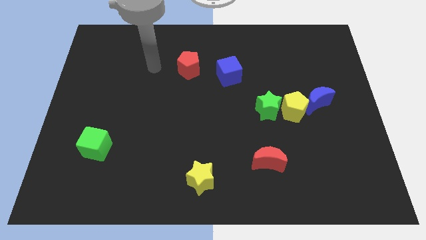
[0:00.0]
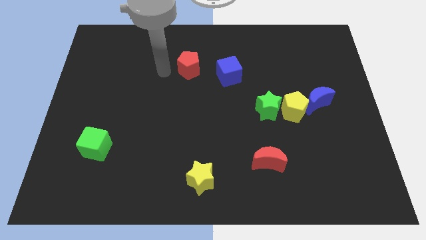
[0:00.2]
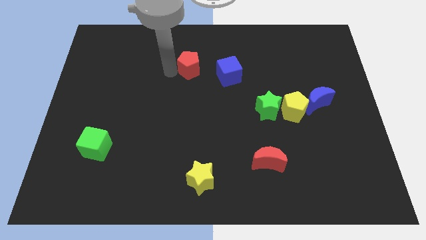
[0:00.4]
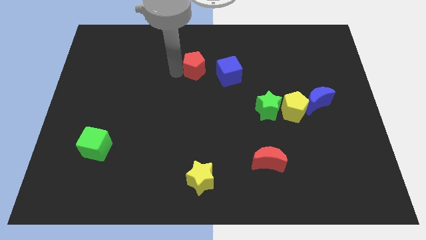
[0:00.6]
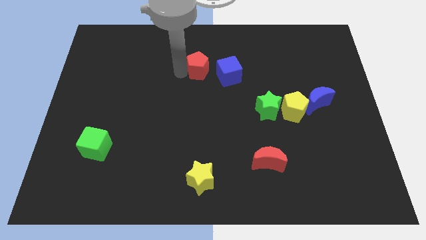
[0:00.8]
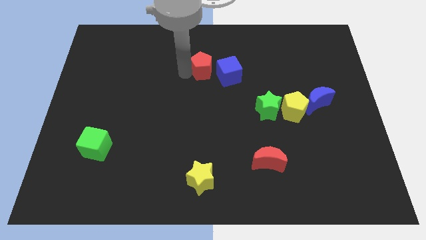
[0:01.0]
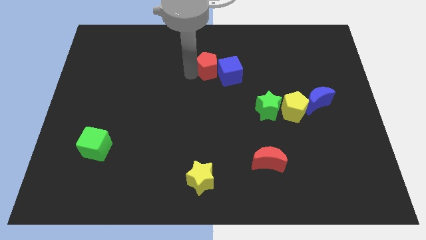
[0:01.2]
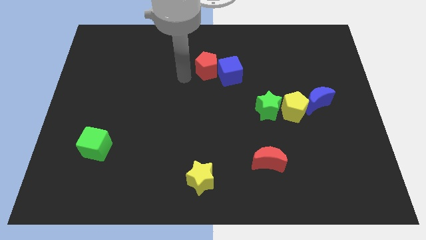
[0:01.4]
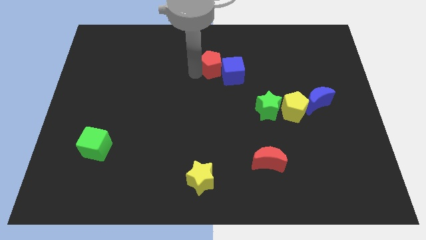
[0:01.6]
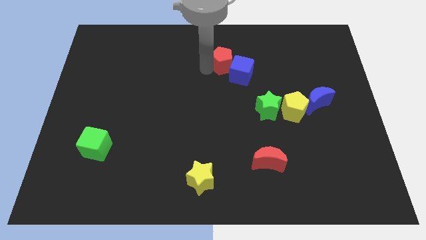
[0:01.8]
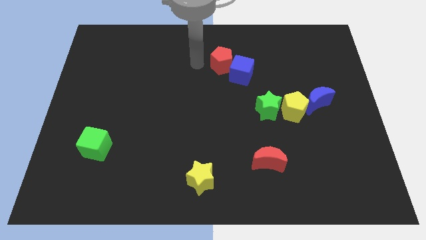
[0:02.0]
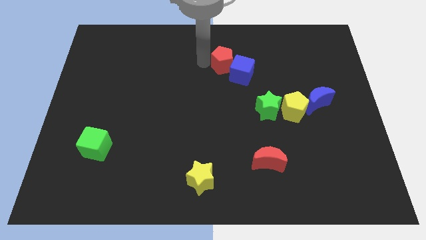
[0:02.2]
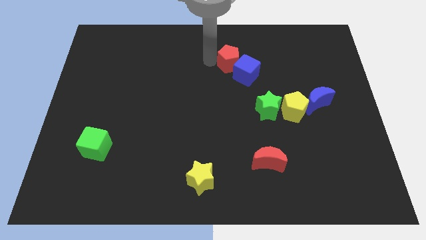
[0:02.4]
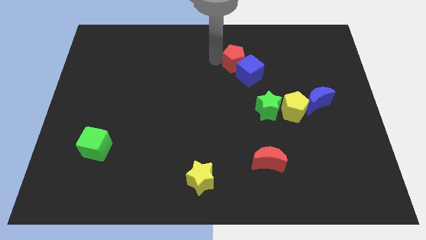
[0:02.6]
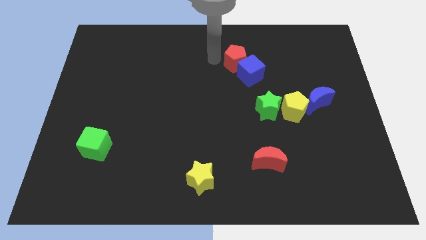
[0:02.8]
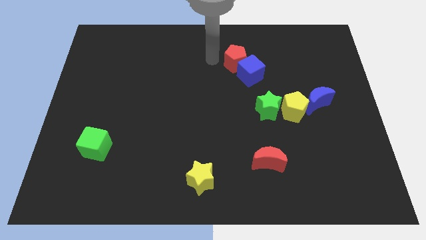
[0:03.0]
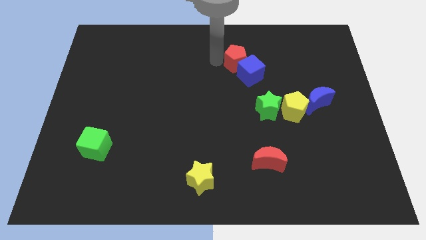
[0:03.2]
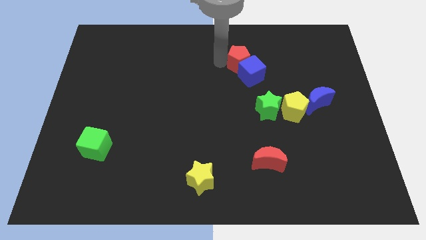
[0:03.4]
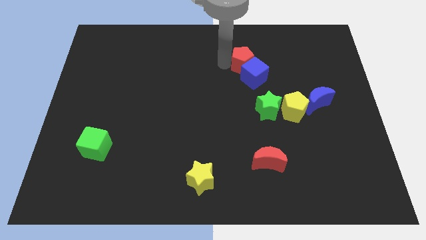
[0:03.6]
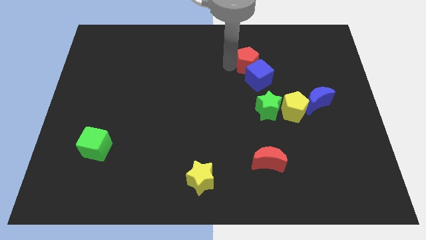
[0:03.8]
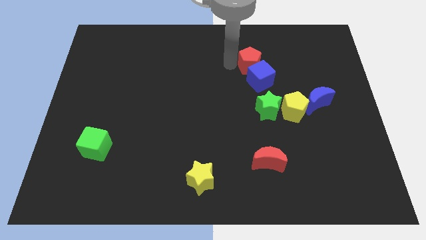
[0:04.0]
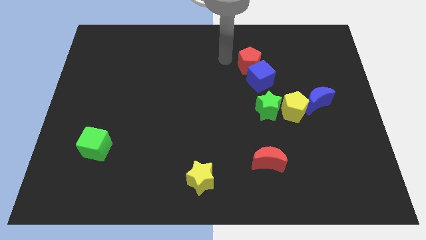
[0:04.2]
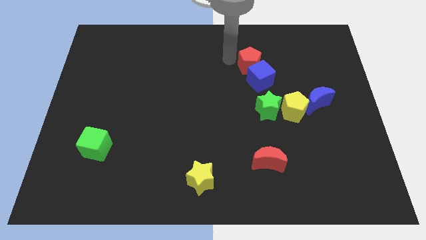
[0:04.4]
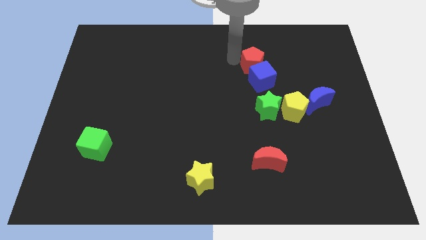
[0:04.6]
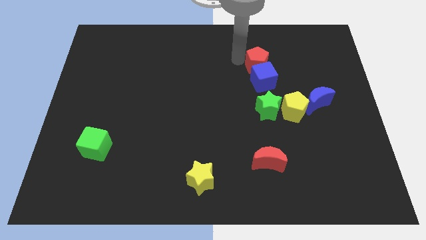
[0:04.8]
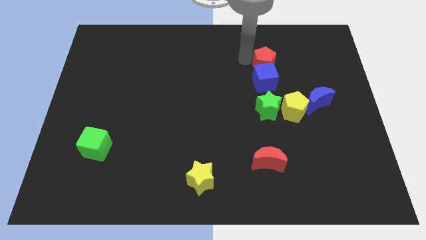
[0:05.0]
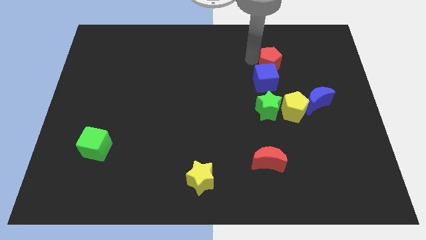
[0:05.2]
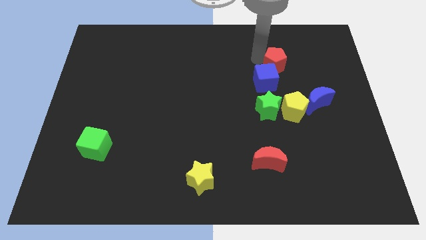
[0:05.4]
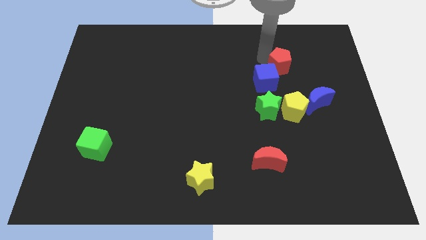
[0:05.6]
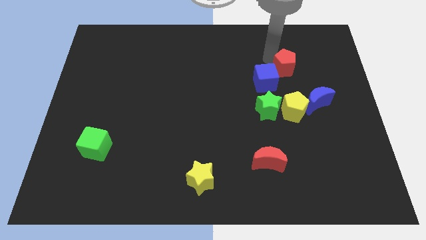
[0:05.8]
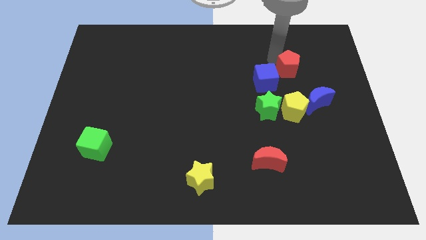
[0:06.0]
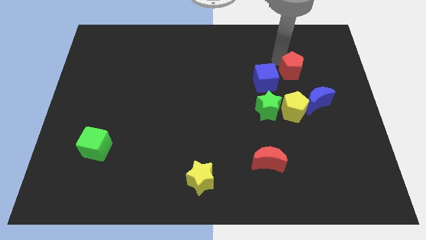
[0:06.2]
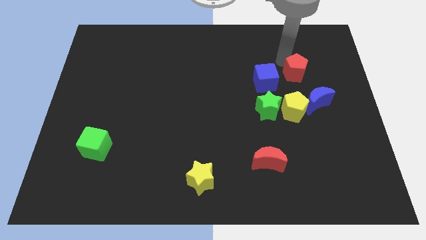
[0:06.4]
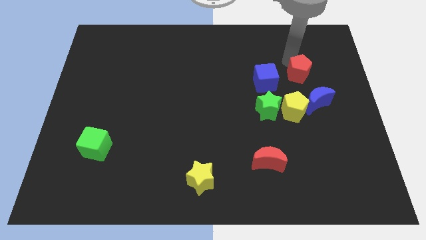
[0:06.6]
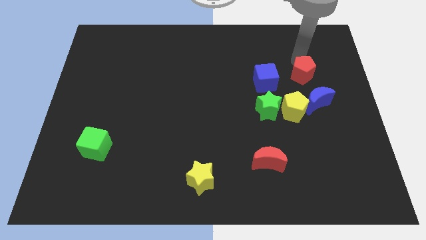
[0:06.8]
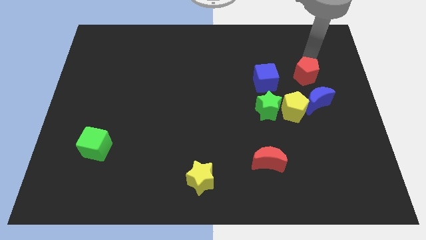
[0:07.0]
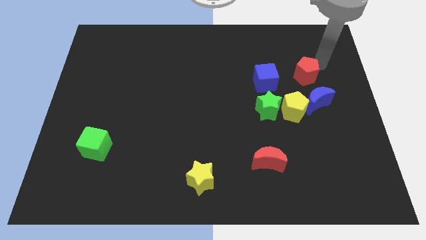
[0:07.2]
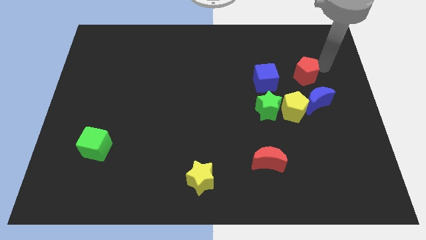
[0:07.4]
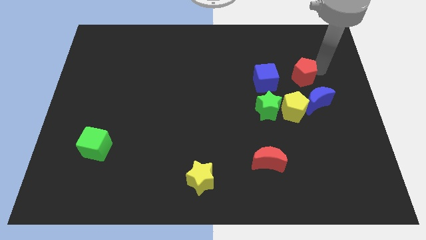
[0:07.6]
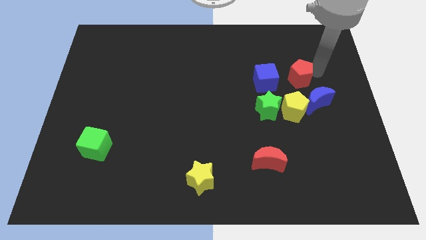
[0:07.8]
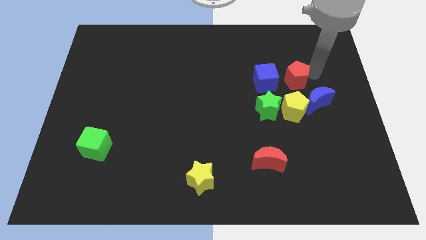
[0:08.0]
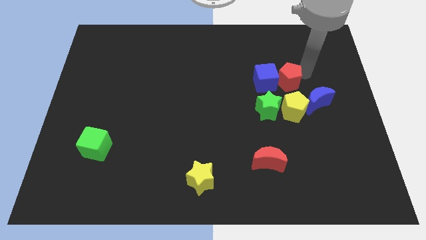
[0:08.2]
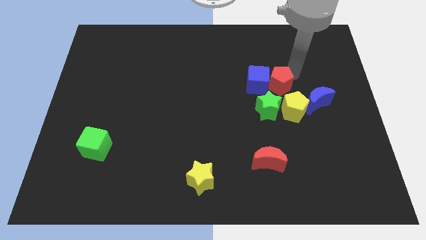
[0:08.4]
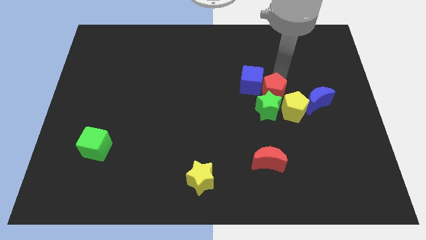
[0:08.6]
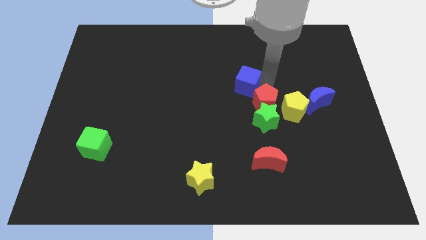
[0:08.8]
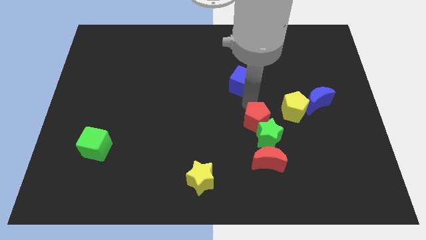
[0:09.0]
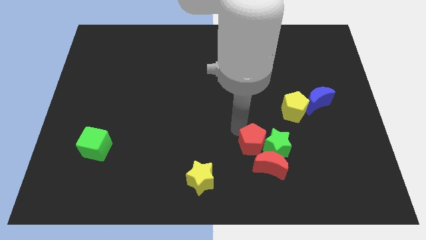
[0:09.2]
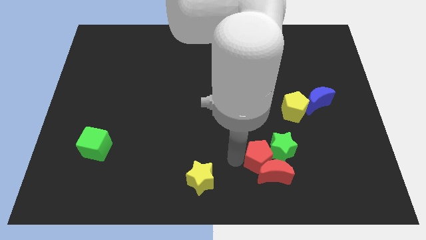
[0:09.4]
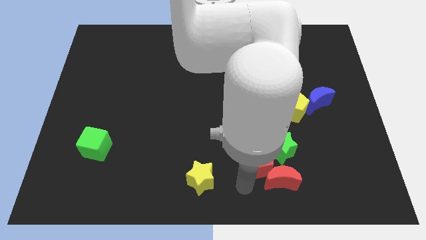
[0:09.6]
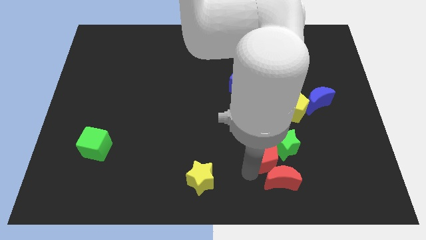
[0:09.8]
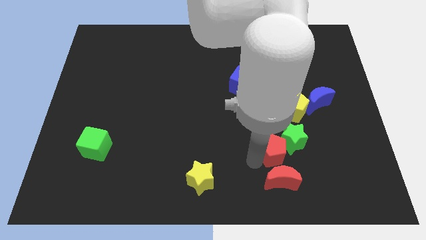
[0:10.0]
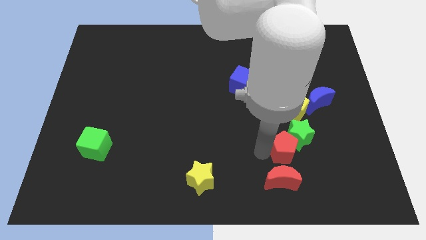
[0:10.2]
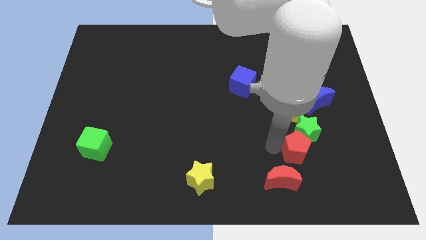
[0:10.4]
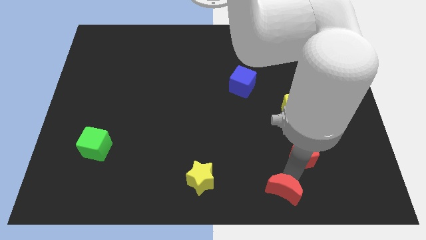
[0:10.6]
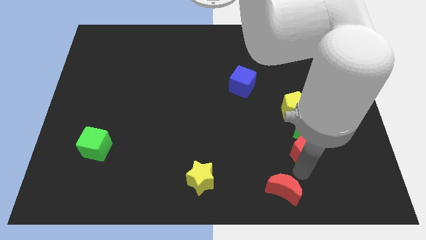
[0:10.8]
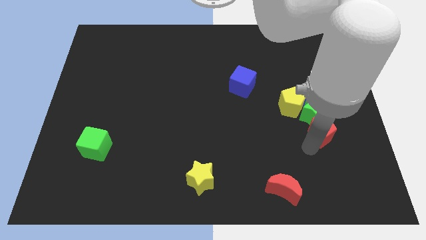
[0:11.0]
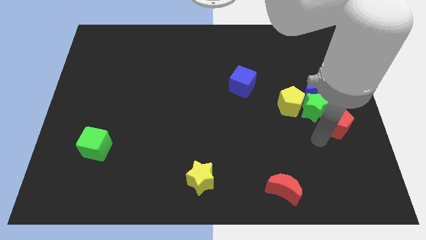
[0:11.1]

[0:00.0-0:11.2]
put the red pentagon to the right side
